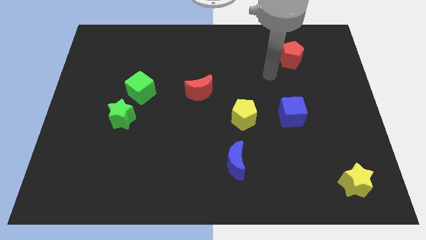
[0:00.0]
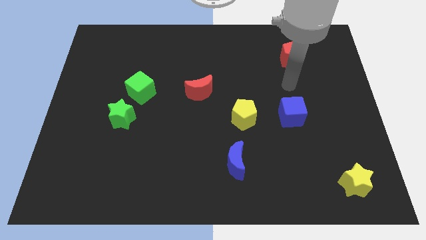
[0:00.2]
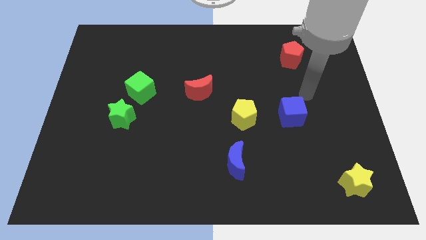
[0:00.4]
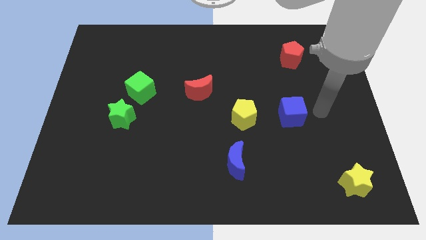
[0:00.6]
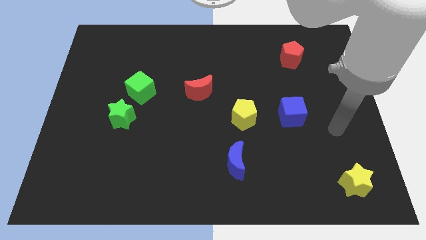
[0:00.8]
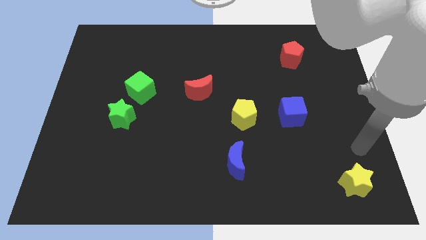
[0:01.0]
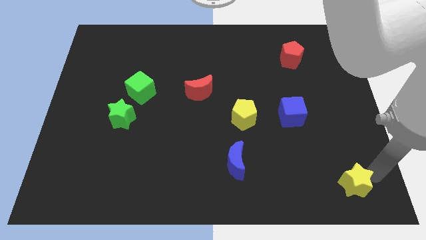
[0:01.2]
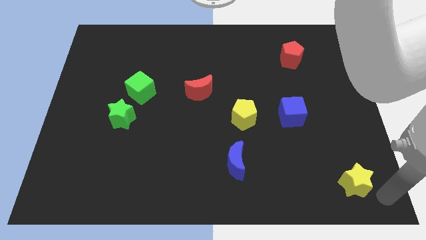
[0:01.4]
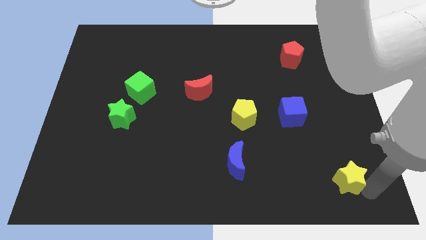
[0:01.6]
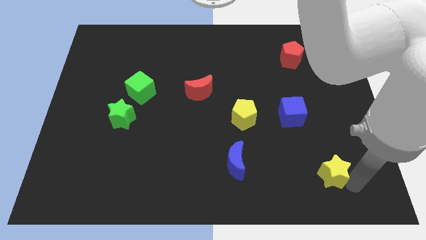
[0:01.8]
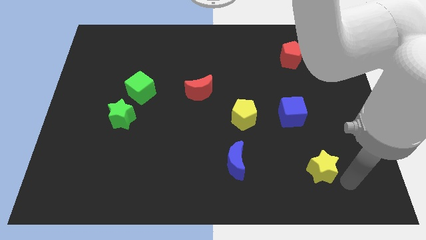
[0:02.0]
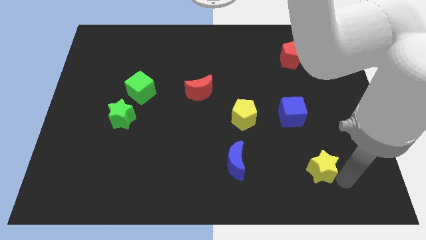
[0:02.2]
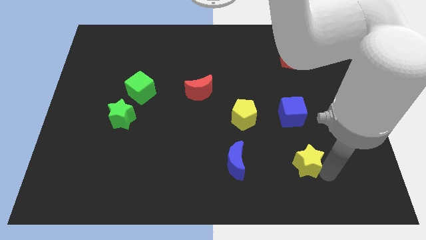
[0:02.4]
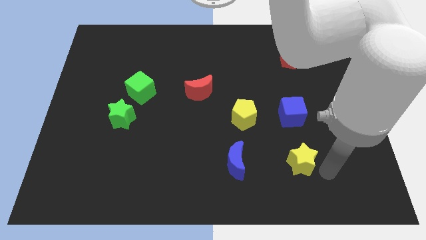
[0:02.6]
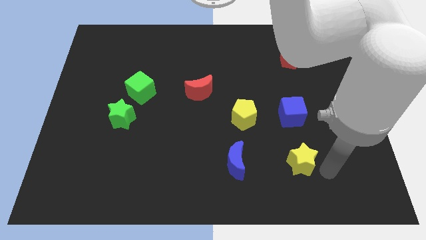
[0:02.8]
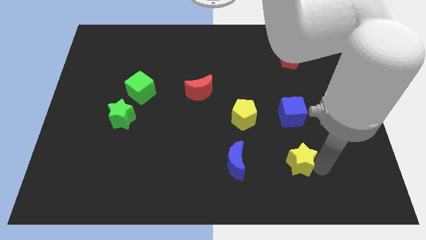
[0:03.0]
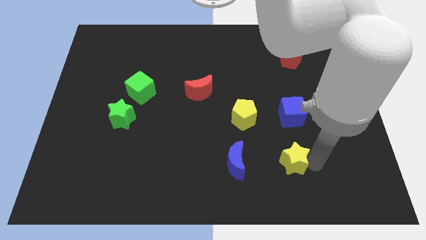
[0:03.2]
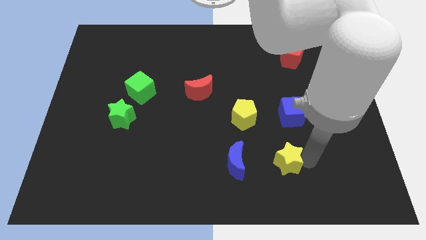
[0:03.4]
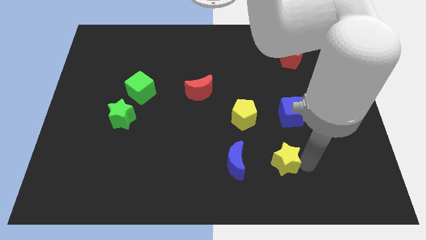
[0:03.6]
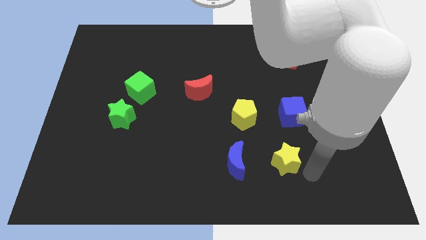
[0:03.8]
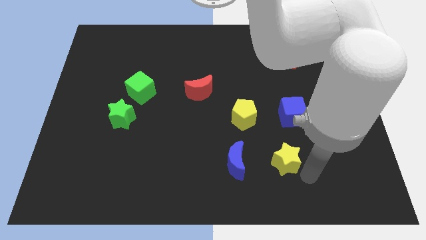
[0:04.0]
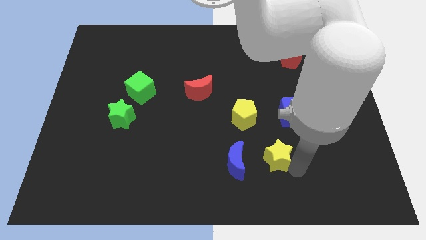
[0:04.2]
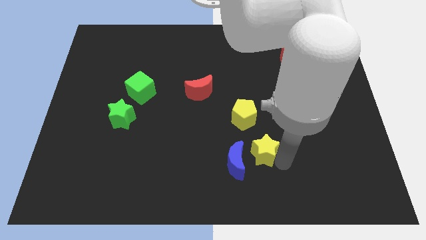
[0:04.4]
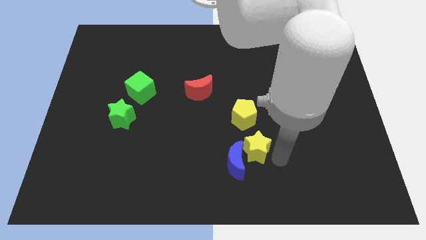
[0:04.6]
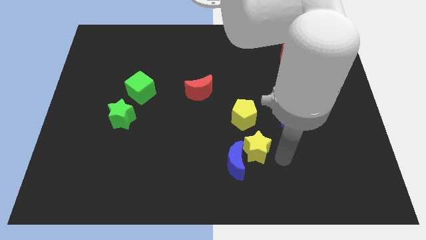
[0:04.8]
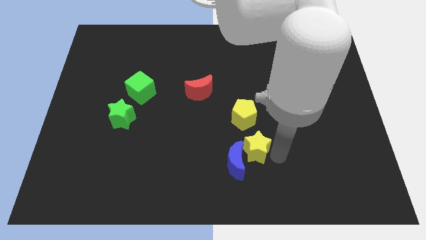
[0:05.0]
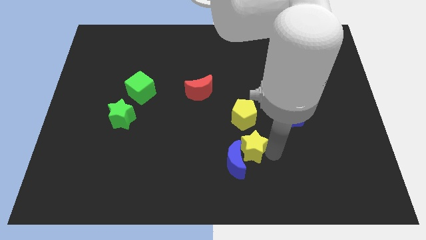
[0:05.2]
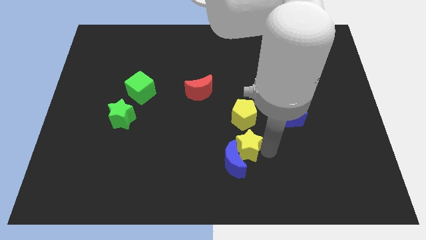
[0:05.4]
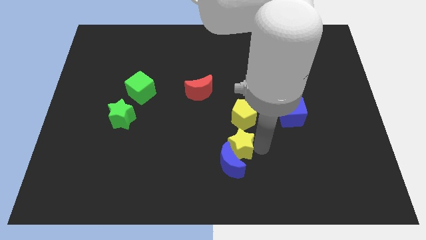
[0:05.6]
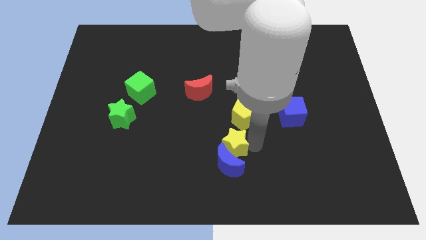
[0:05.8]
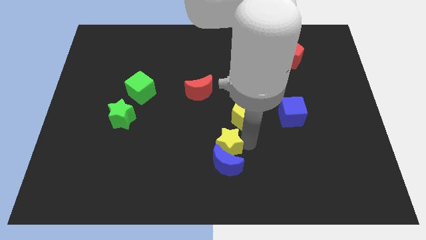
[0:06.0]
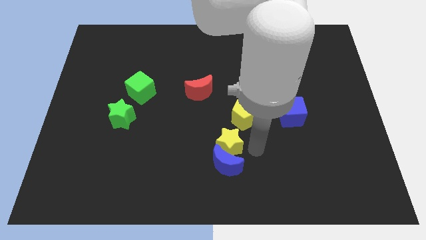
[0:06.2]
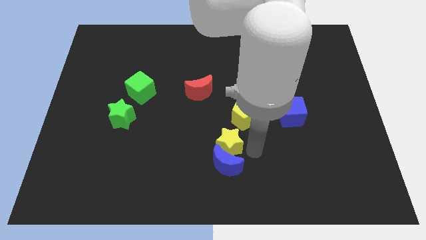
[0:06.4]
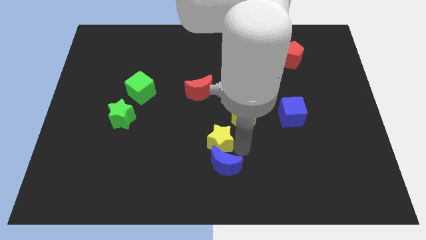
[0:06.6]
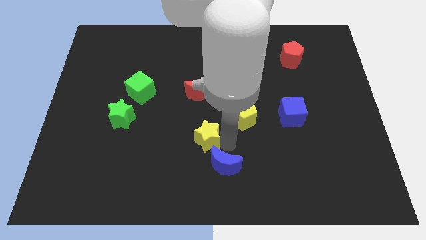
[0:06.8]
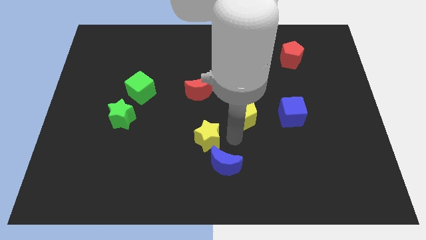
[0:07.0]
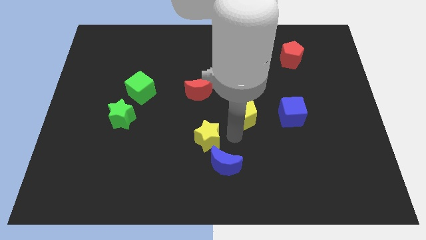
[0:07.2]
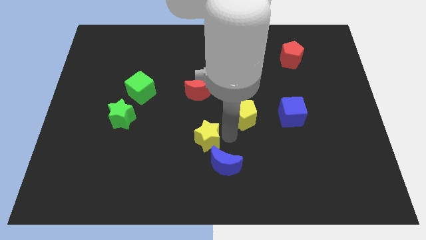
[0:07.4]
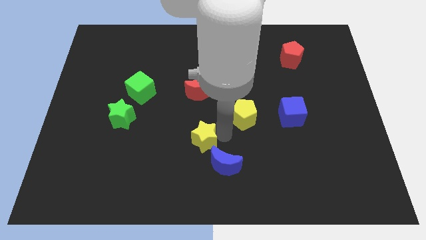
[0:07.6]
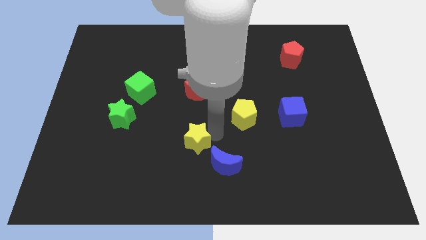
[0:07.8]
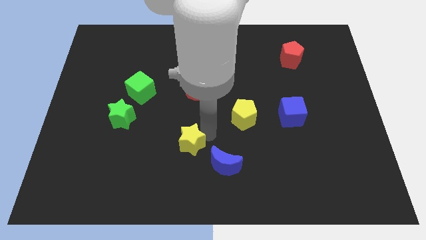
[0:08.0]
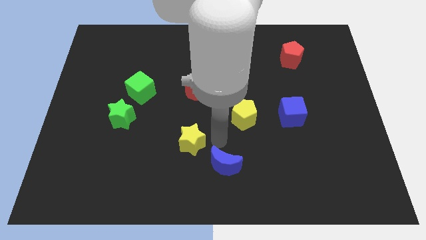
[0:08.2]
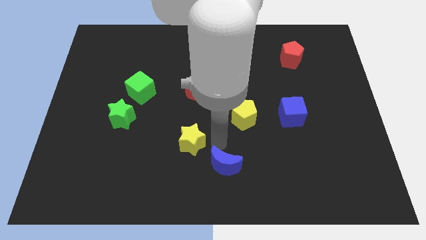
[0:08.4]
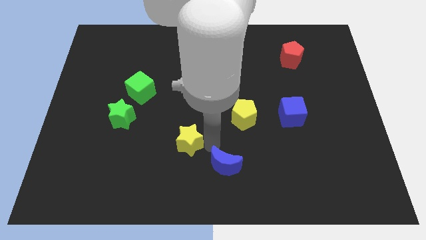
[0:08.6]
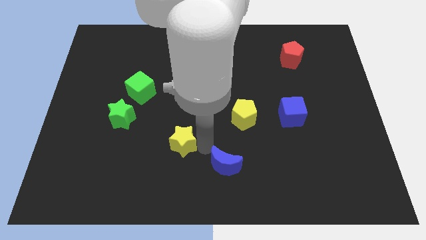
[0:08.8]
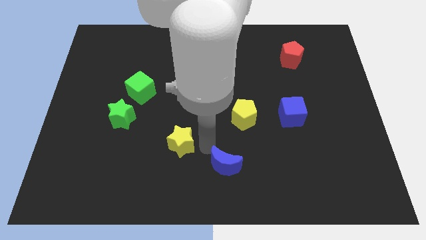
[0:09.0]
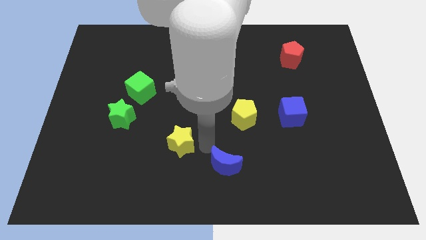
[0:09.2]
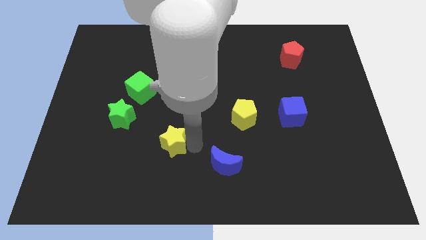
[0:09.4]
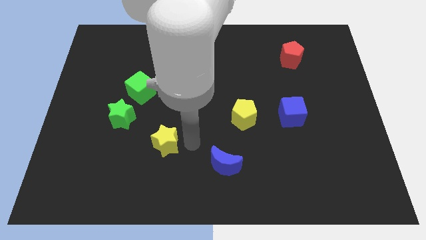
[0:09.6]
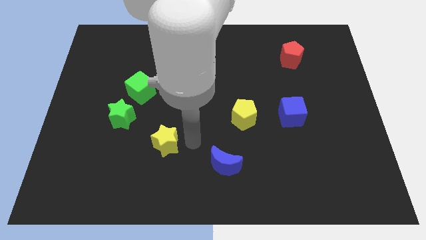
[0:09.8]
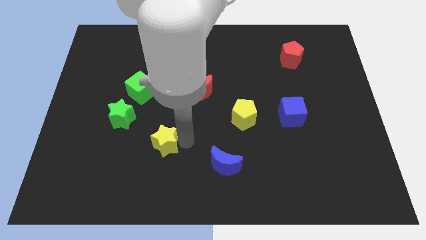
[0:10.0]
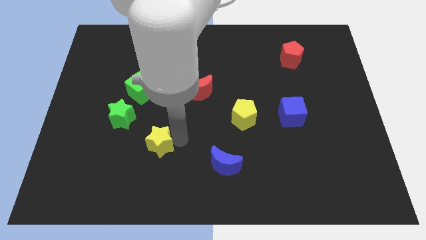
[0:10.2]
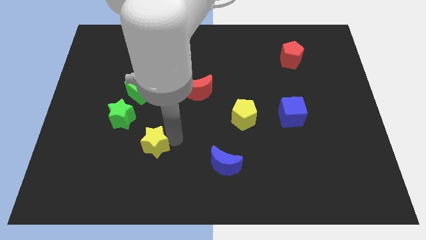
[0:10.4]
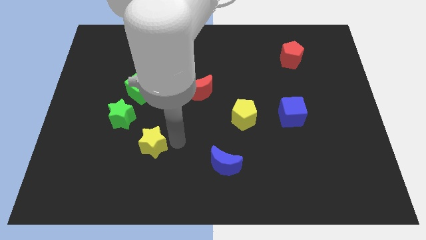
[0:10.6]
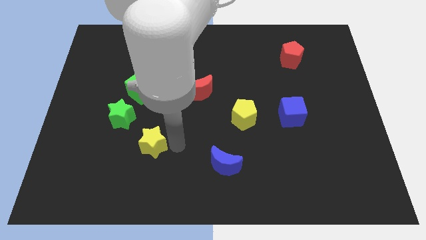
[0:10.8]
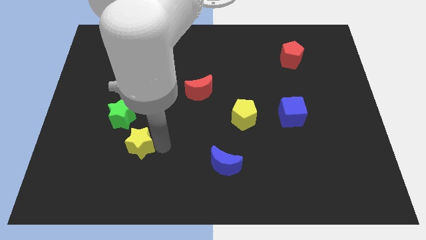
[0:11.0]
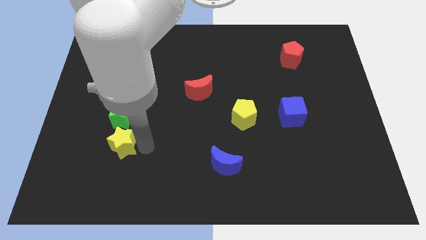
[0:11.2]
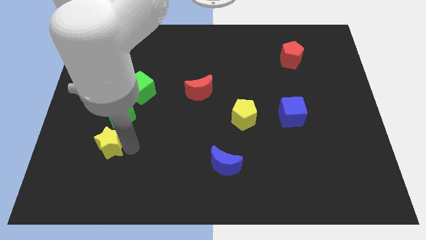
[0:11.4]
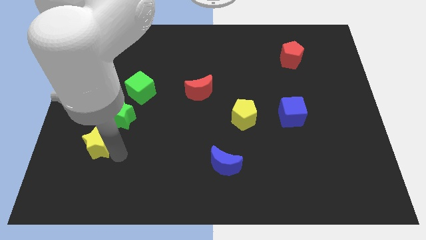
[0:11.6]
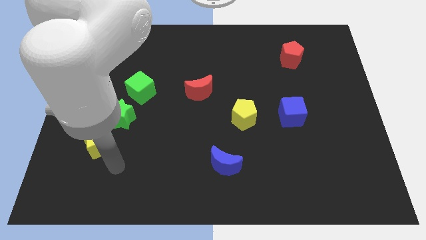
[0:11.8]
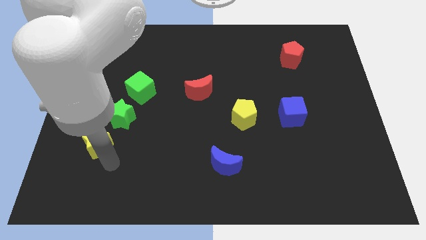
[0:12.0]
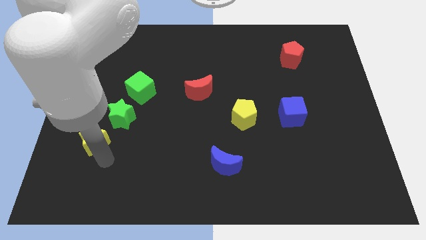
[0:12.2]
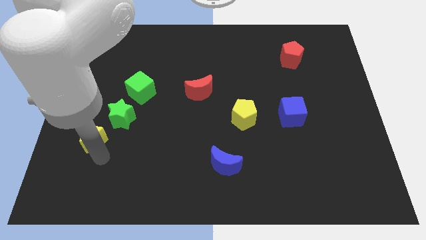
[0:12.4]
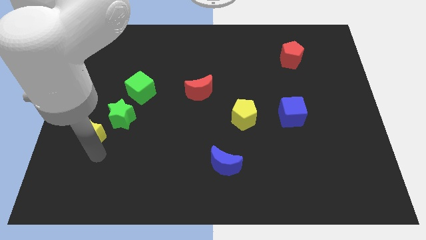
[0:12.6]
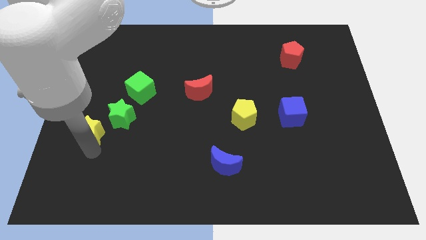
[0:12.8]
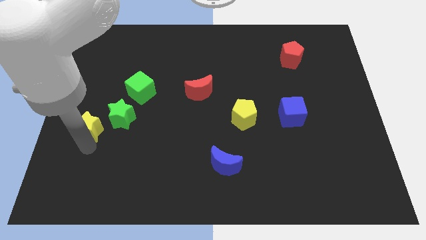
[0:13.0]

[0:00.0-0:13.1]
put the yellow star to the center left
